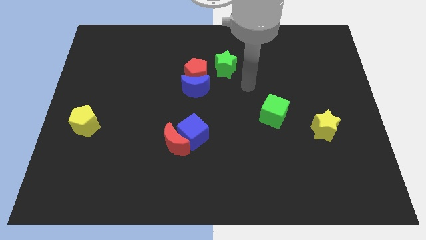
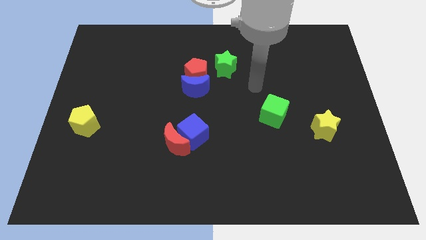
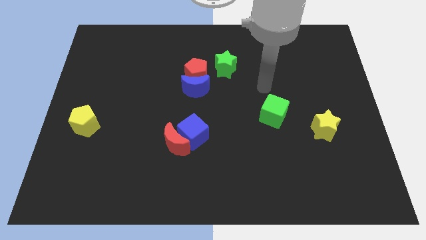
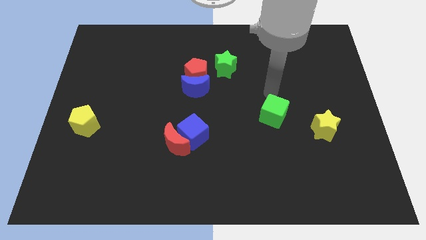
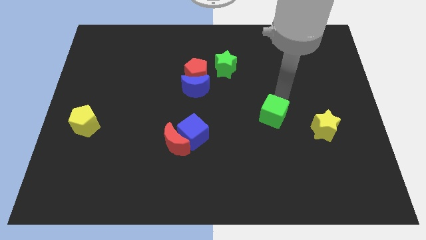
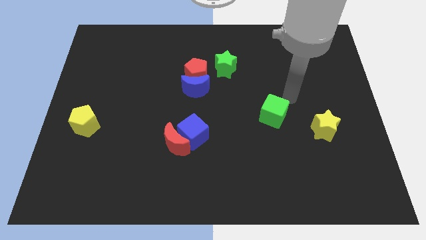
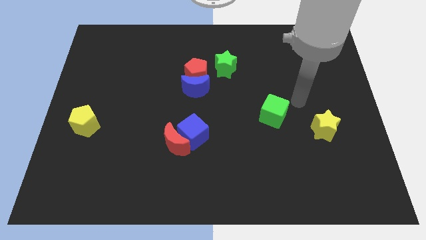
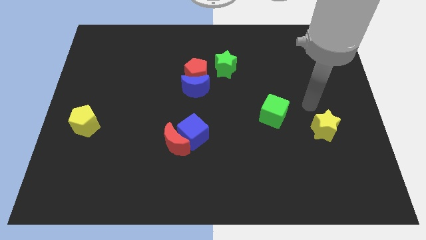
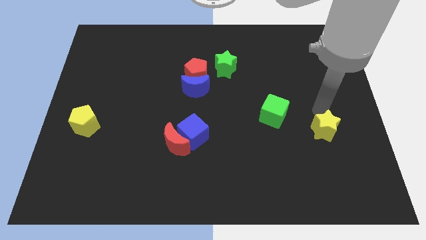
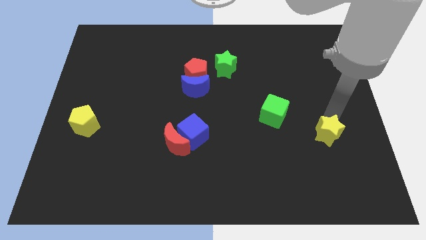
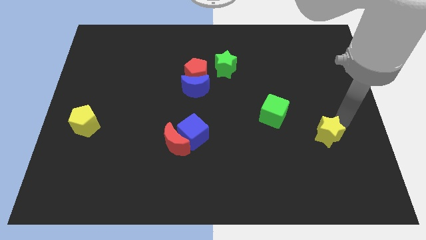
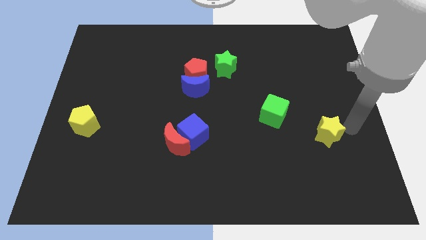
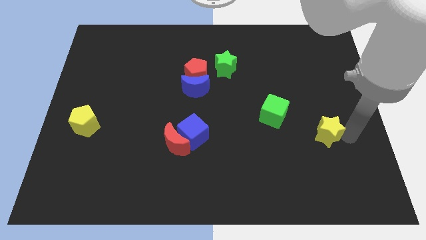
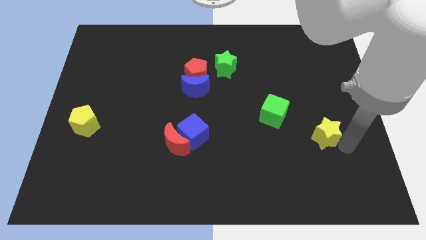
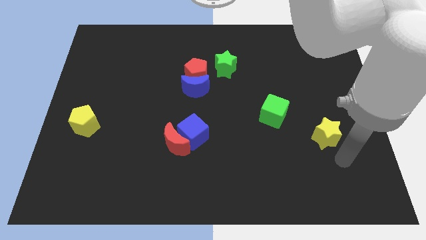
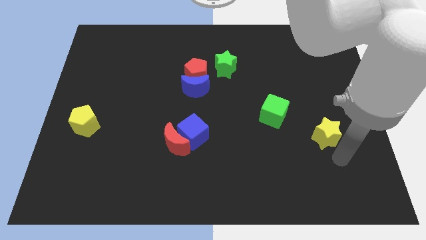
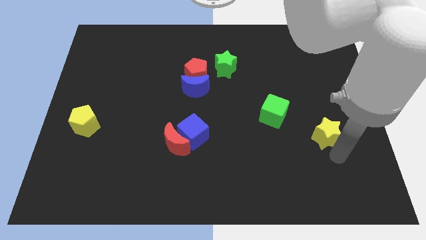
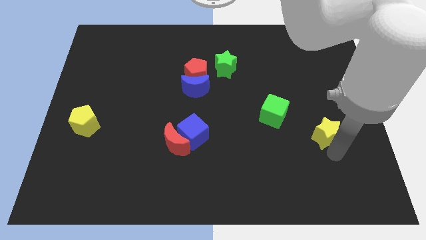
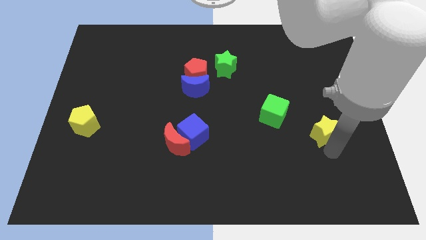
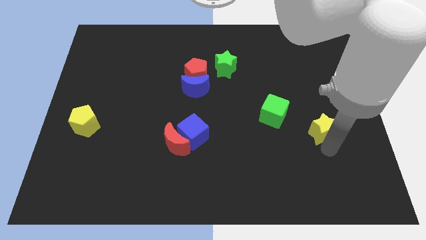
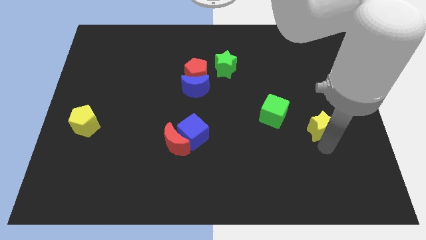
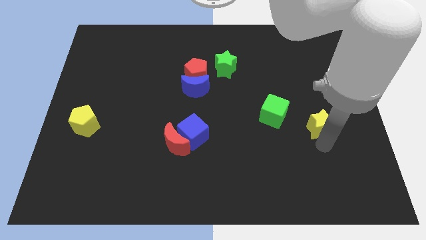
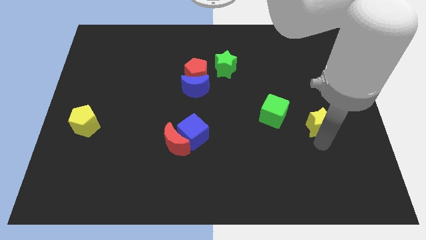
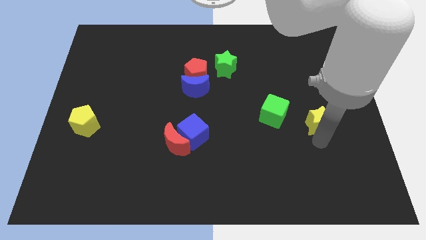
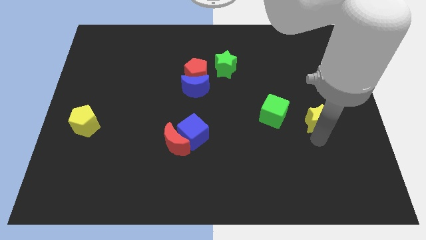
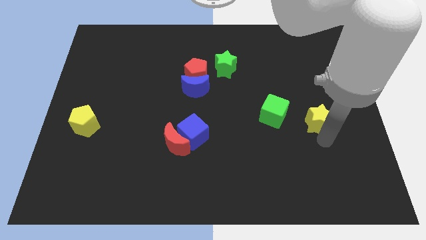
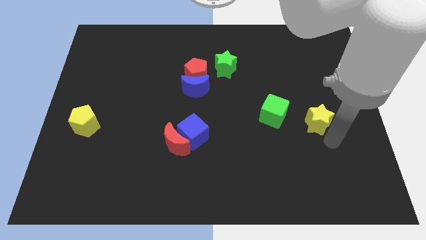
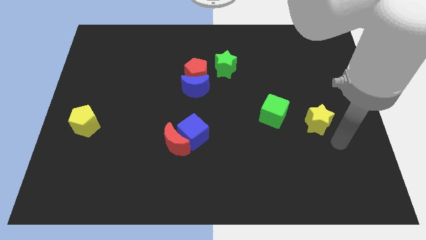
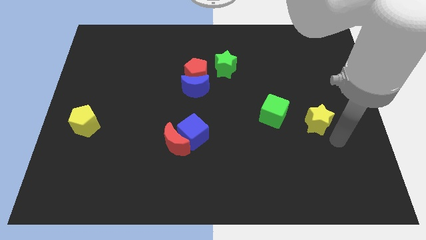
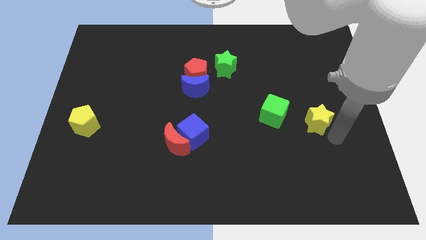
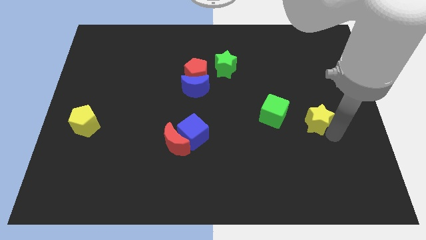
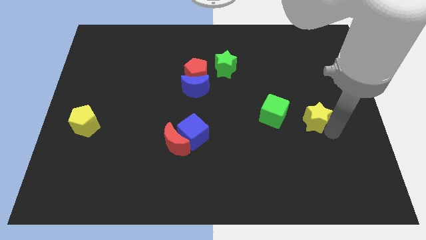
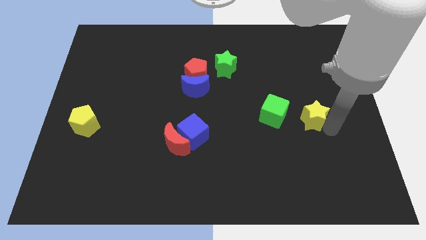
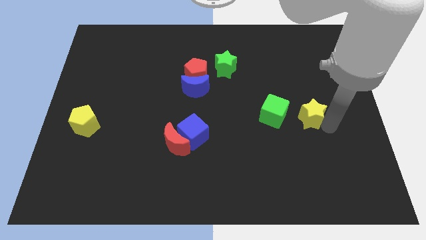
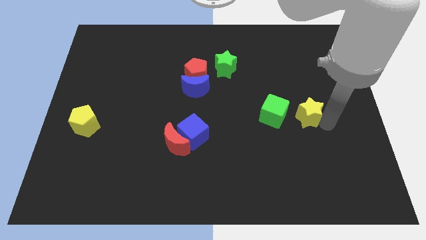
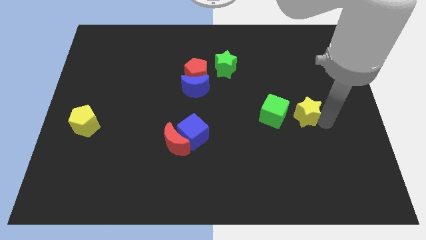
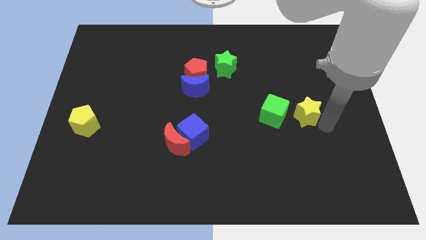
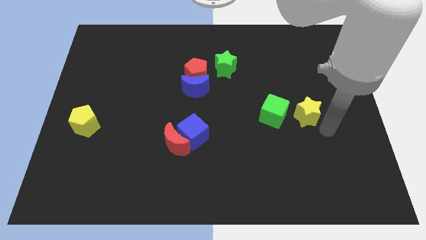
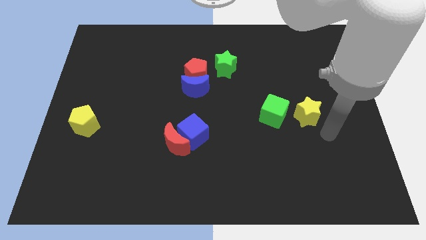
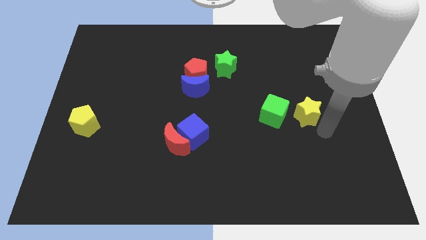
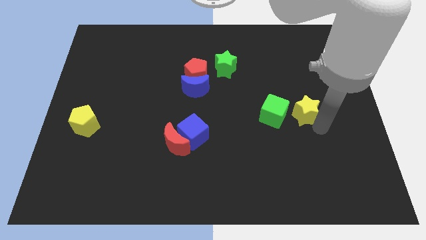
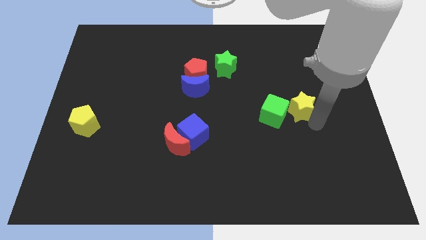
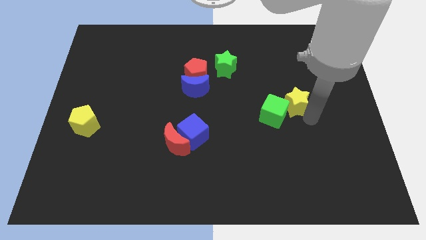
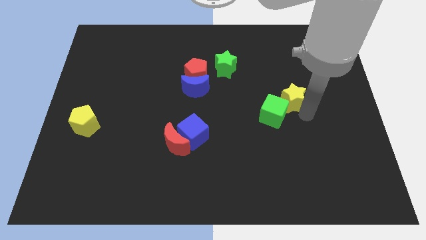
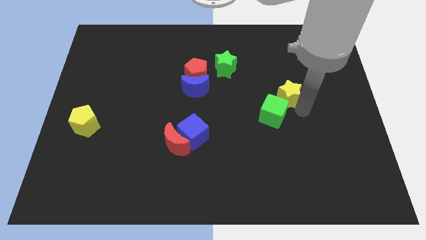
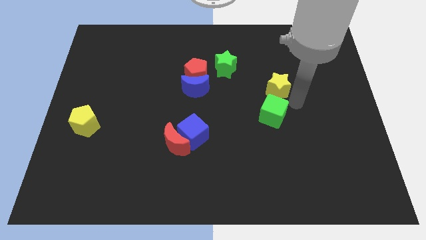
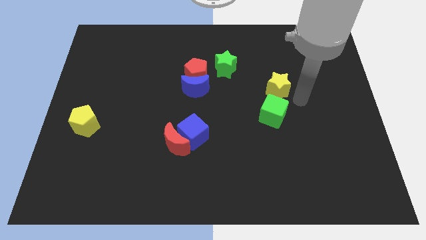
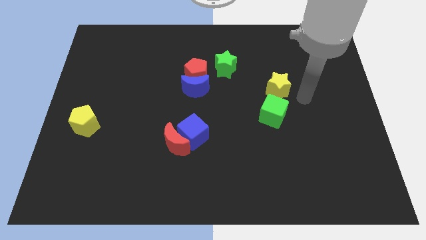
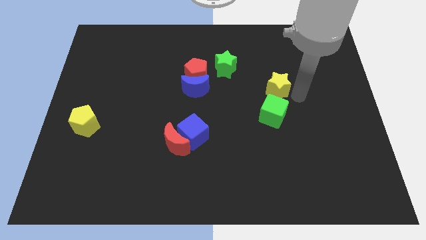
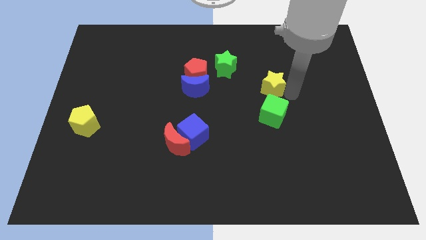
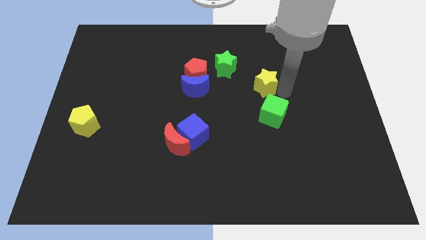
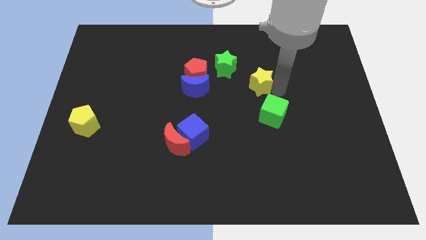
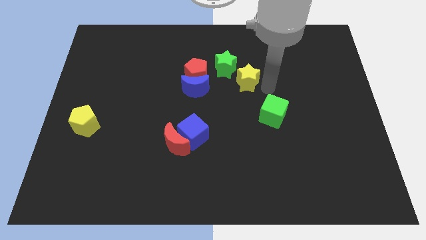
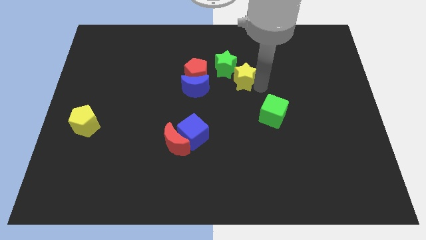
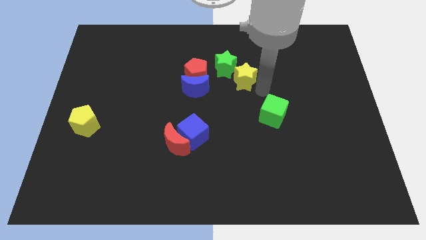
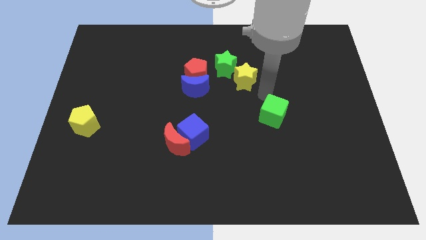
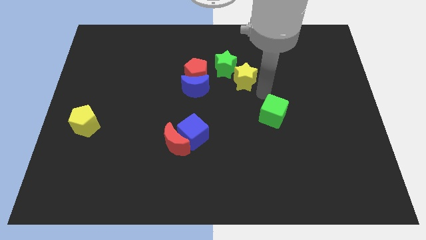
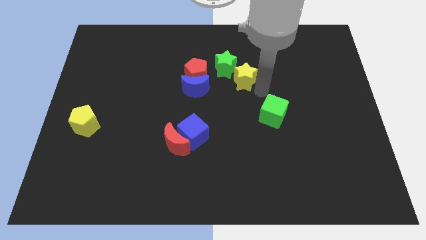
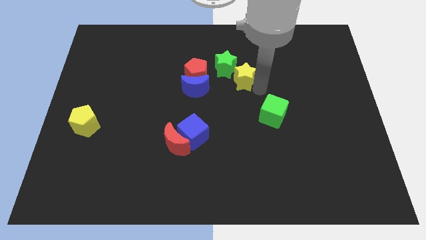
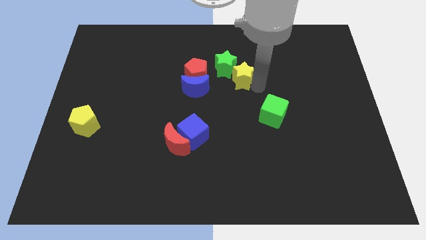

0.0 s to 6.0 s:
push the yellow star towards the green star

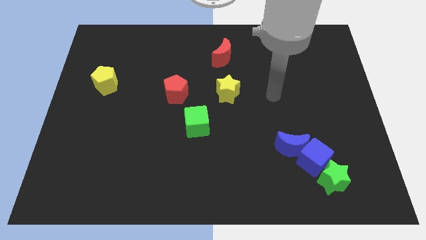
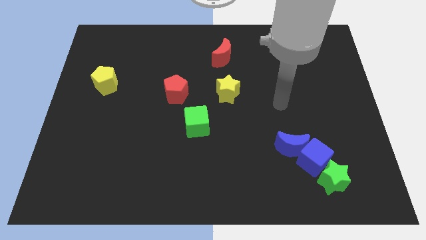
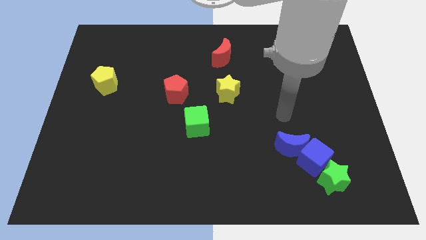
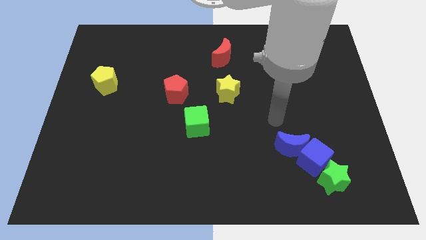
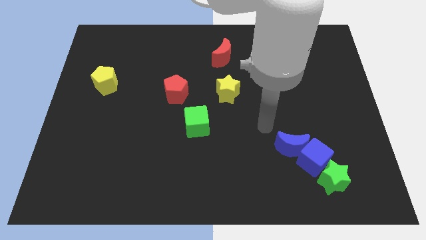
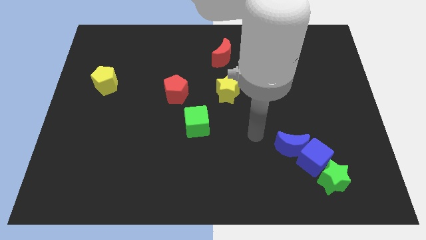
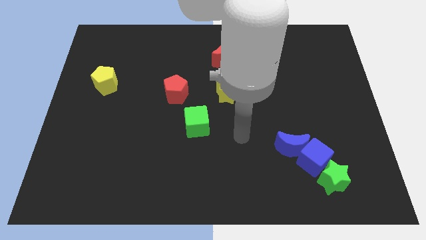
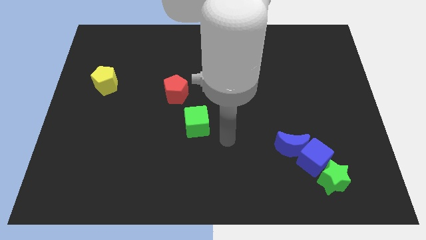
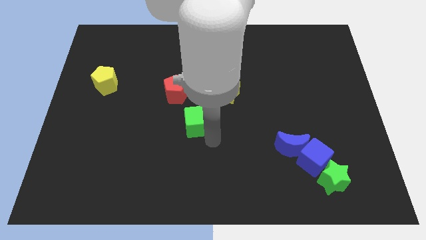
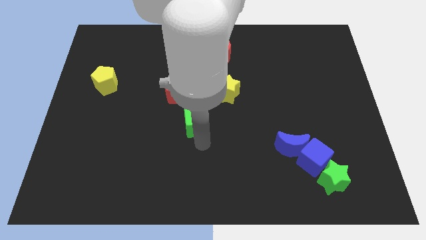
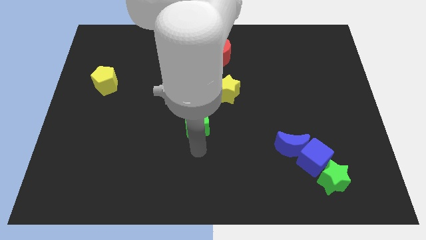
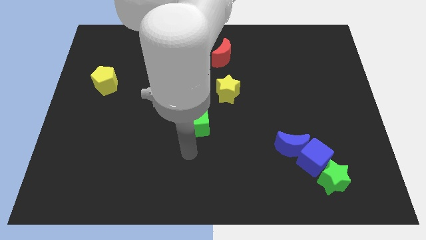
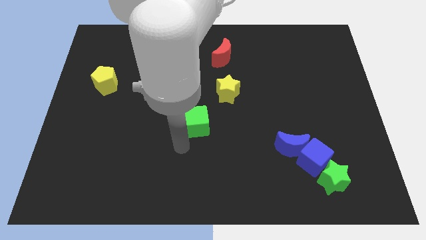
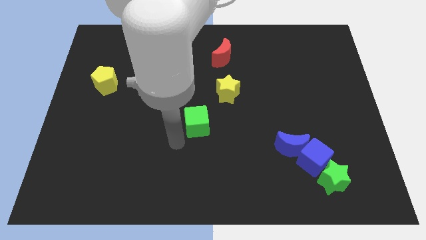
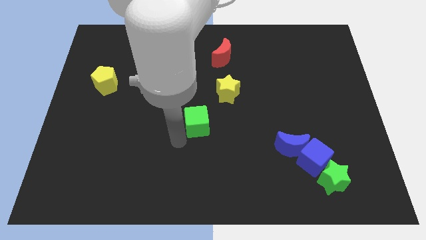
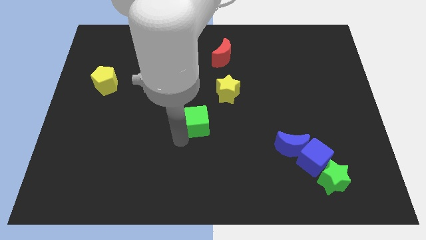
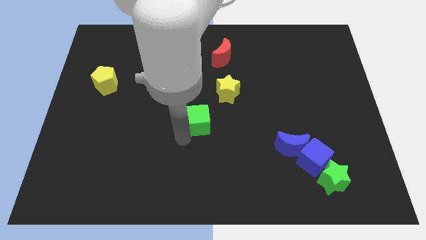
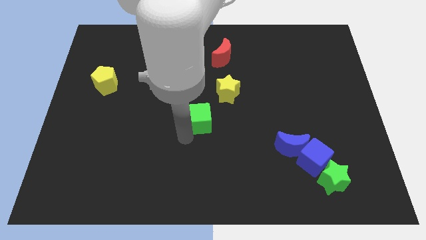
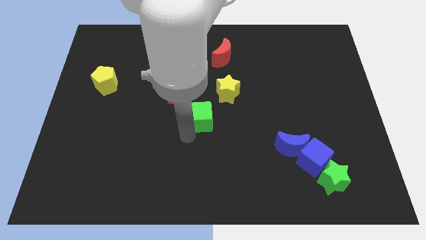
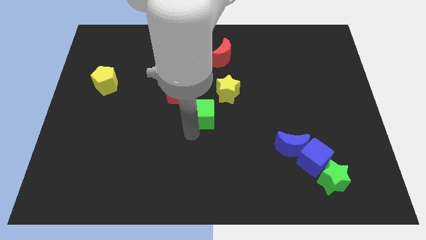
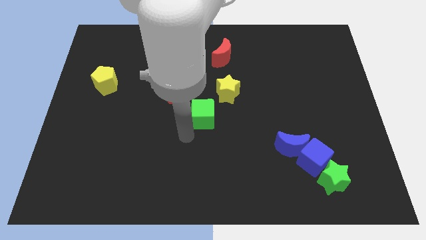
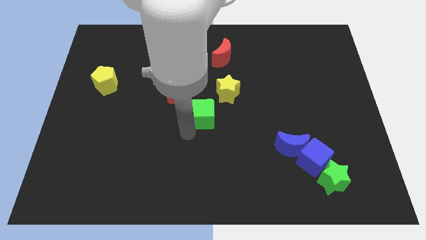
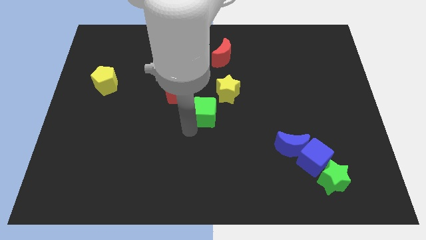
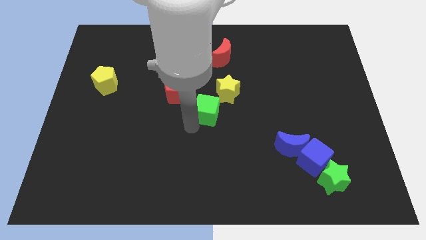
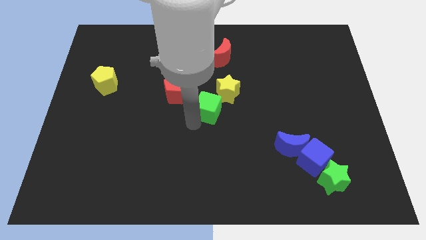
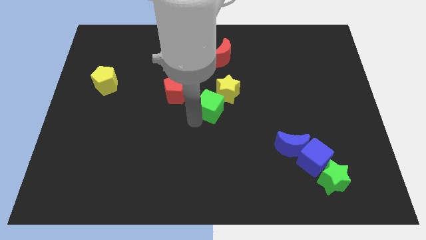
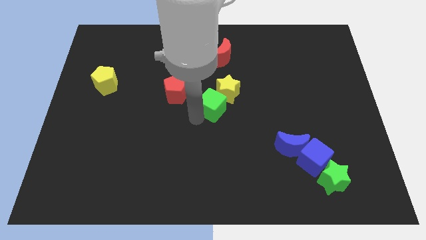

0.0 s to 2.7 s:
slide the green cube close to the yellow star

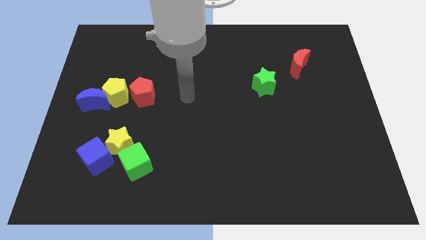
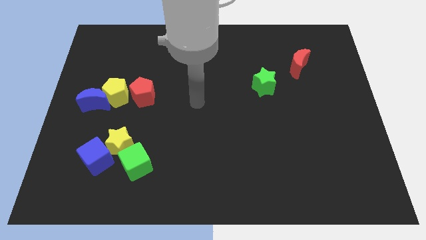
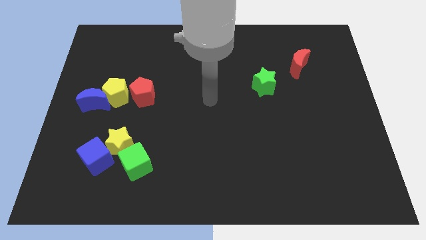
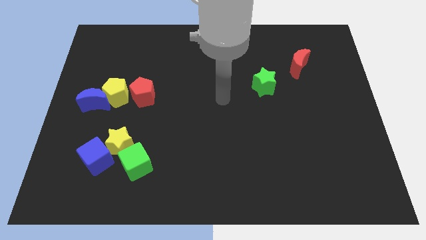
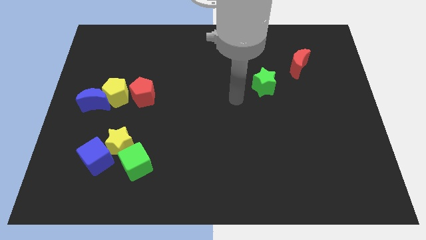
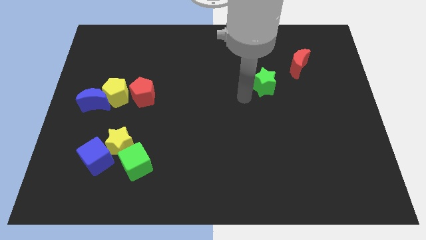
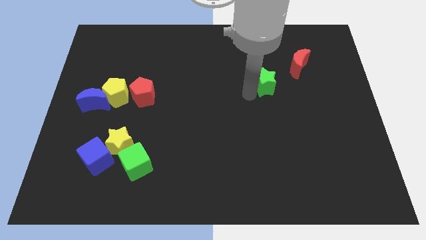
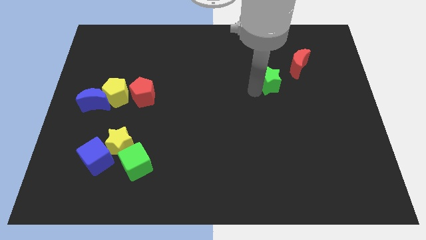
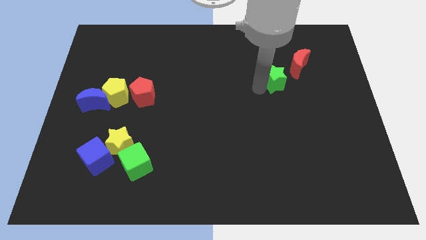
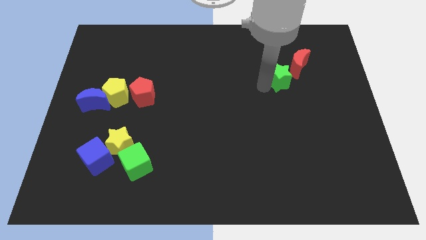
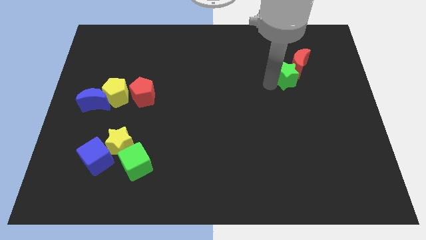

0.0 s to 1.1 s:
slide the green star close to the red moon
